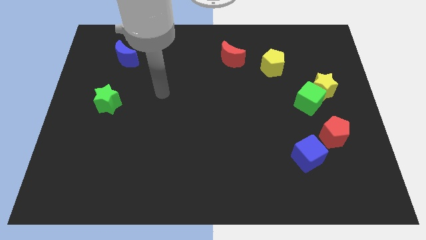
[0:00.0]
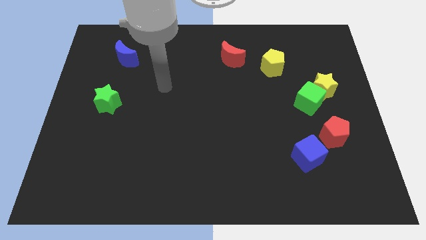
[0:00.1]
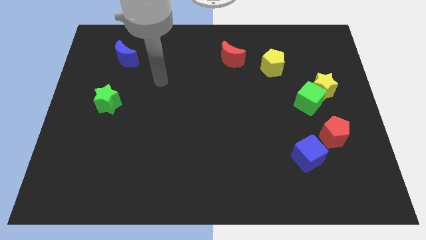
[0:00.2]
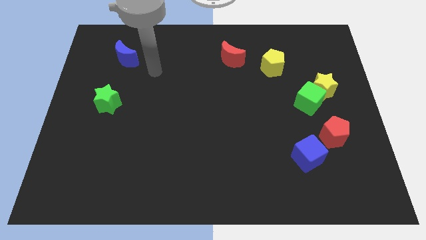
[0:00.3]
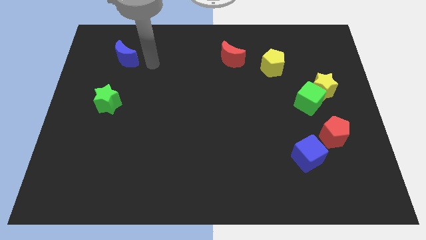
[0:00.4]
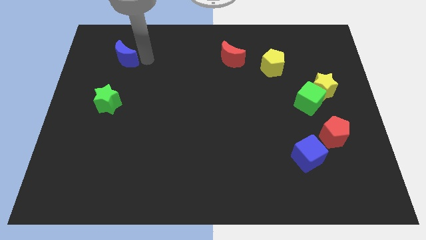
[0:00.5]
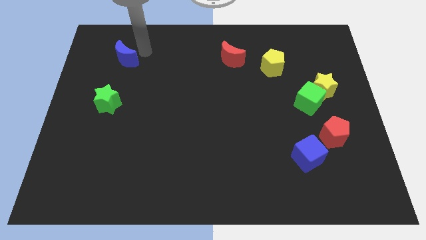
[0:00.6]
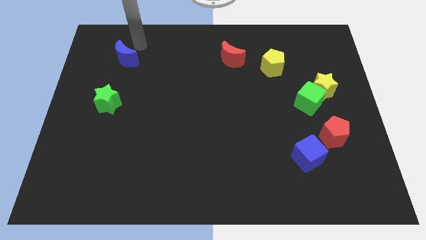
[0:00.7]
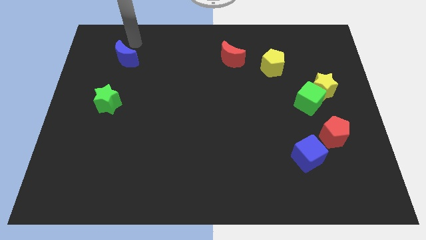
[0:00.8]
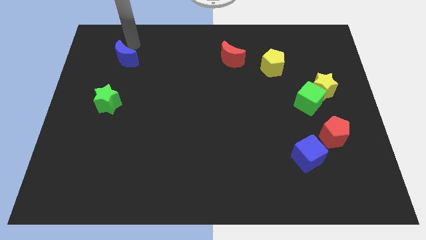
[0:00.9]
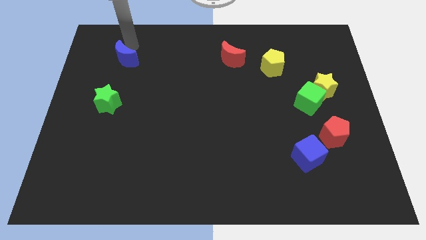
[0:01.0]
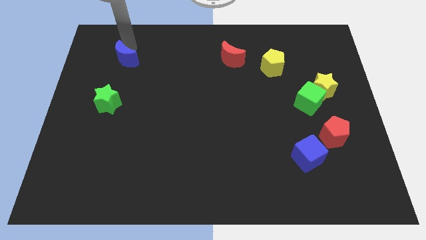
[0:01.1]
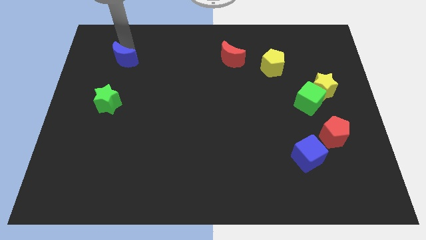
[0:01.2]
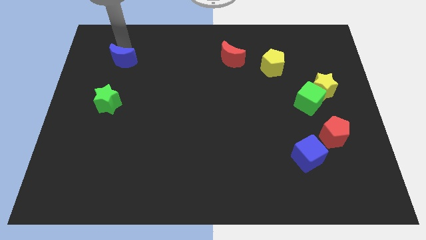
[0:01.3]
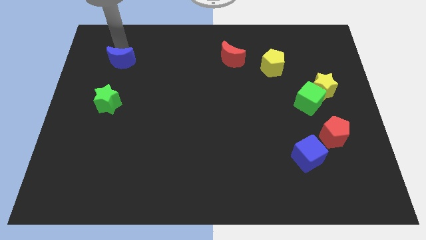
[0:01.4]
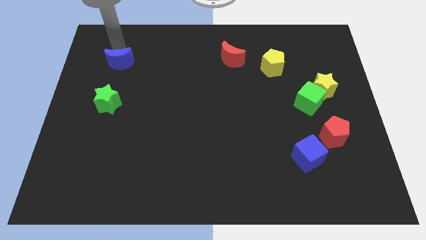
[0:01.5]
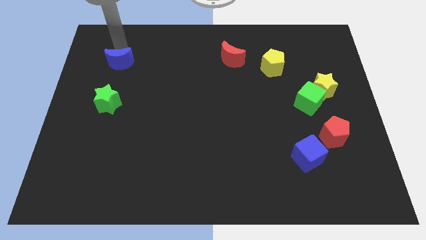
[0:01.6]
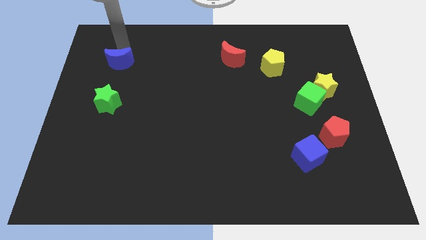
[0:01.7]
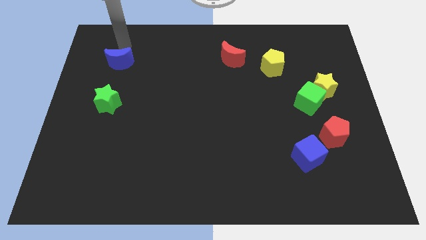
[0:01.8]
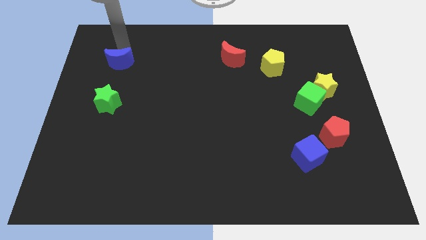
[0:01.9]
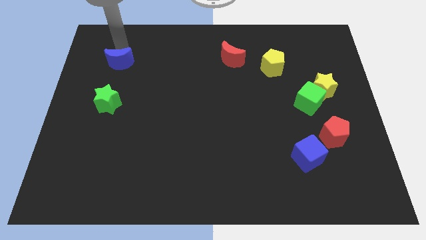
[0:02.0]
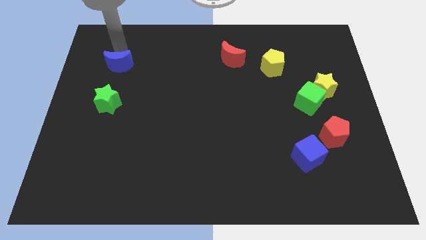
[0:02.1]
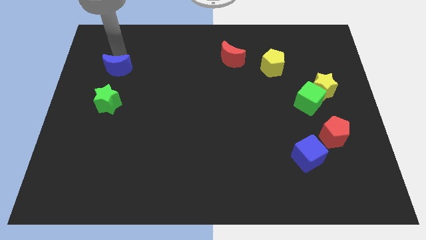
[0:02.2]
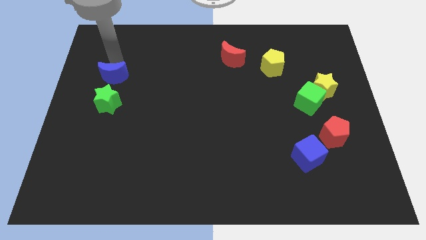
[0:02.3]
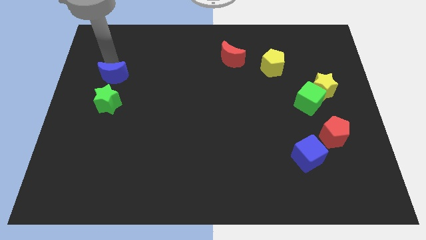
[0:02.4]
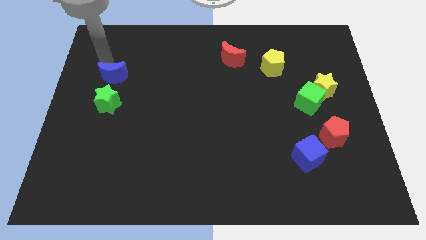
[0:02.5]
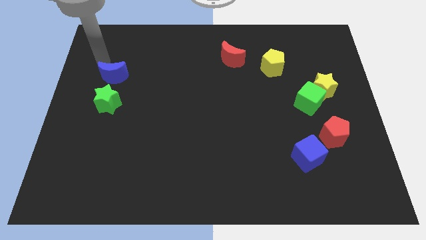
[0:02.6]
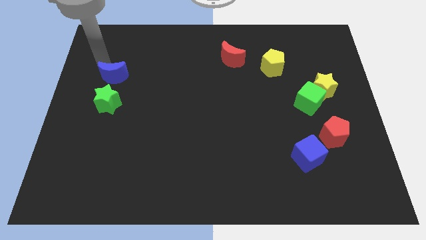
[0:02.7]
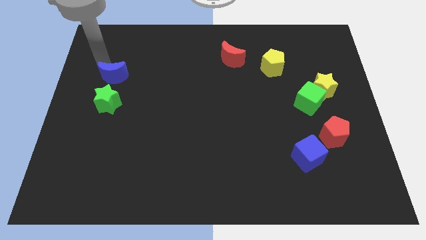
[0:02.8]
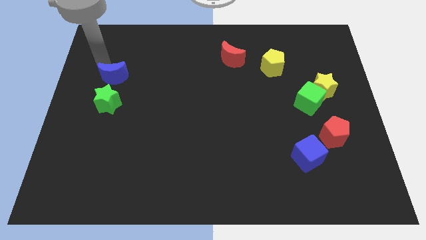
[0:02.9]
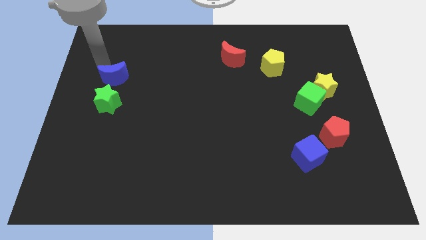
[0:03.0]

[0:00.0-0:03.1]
move the blue moon down somewhat

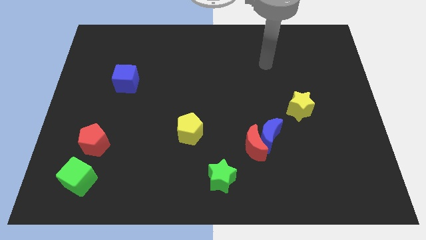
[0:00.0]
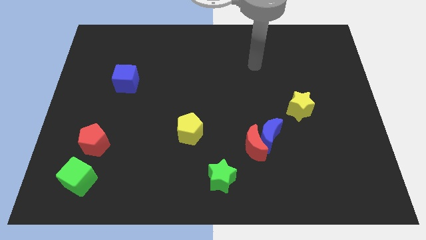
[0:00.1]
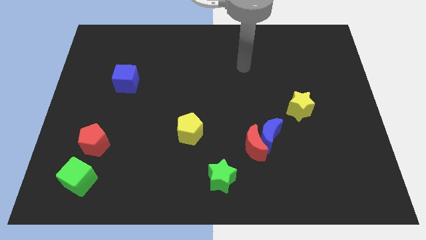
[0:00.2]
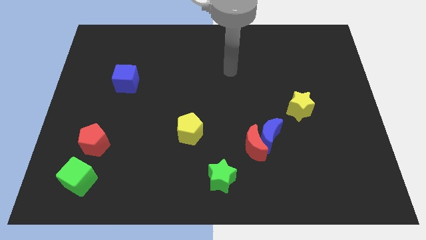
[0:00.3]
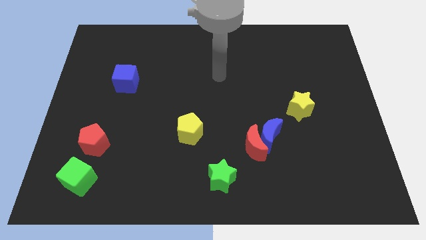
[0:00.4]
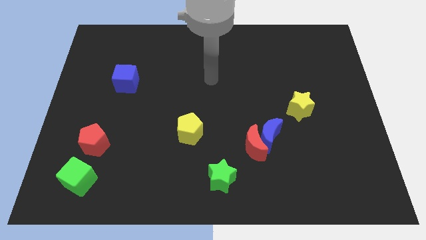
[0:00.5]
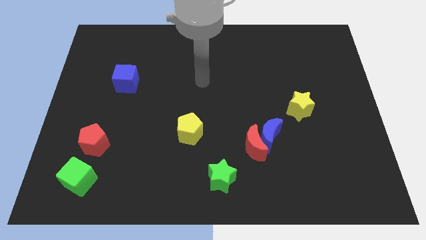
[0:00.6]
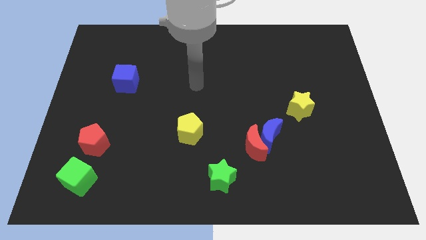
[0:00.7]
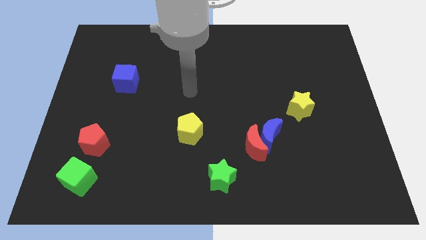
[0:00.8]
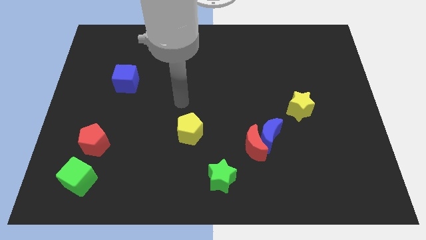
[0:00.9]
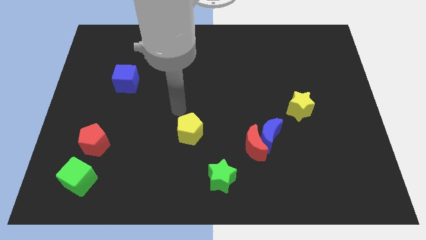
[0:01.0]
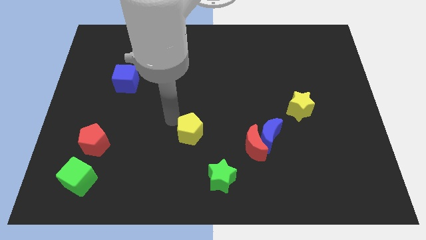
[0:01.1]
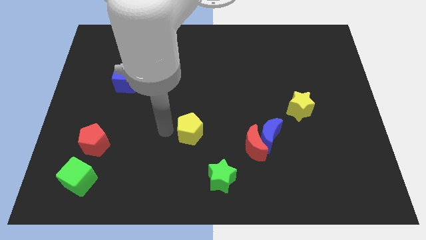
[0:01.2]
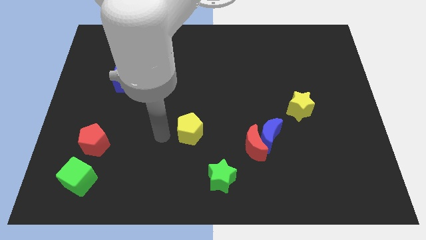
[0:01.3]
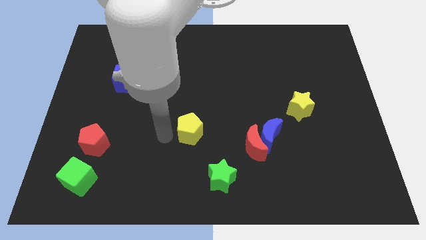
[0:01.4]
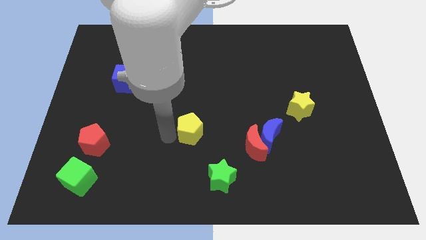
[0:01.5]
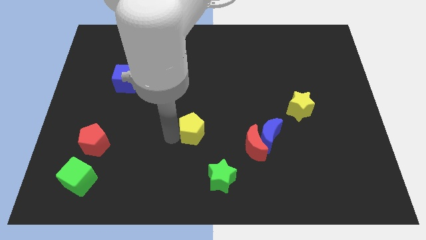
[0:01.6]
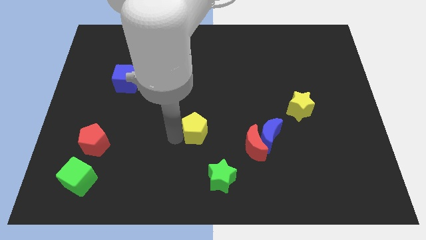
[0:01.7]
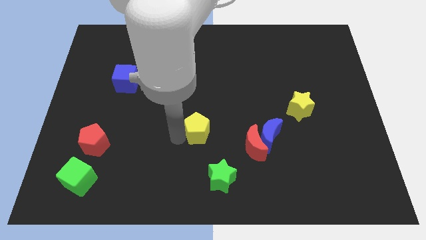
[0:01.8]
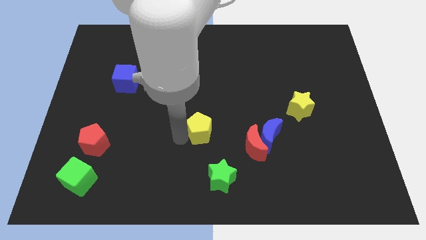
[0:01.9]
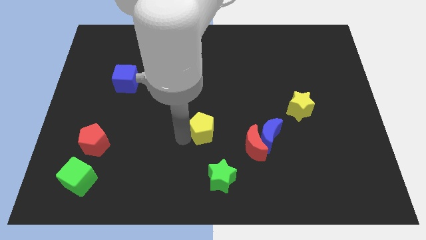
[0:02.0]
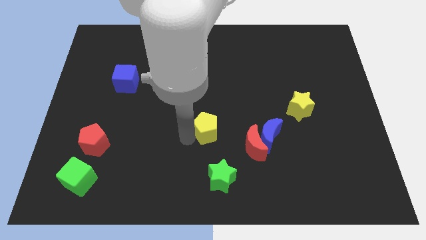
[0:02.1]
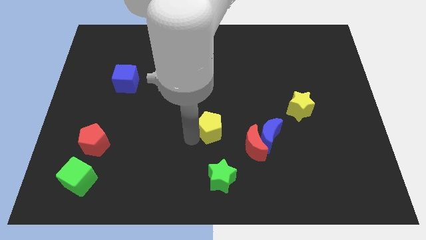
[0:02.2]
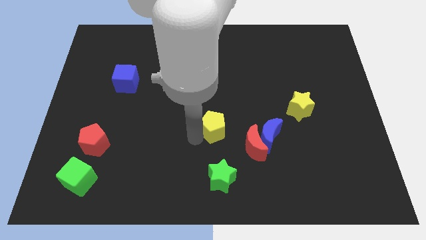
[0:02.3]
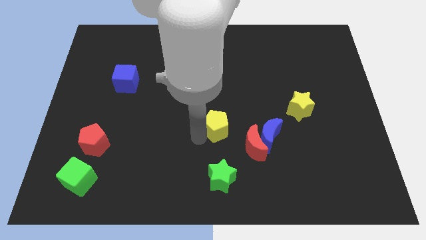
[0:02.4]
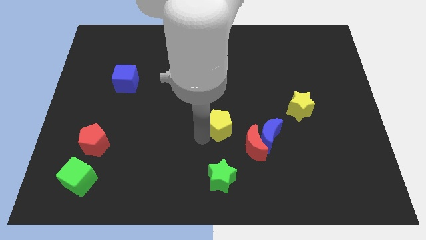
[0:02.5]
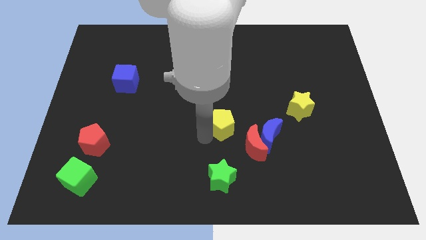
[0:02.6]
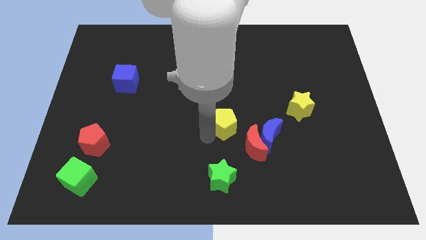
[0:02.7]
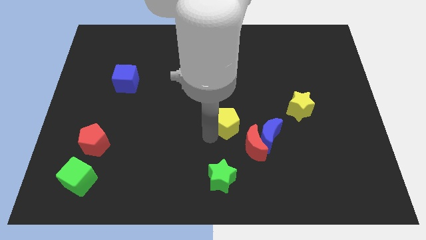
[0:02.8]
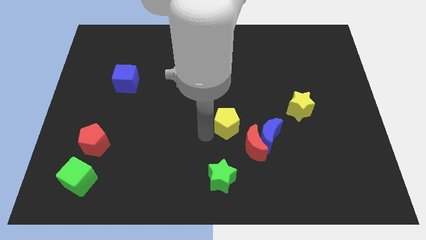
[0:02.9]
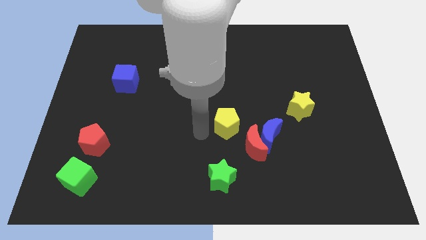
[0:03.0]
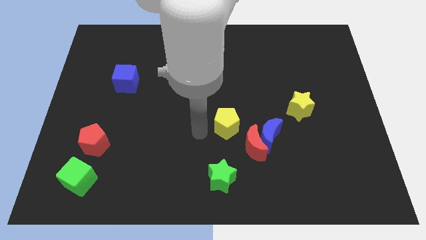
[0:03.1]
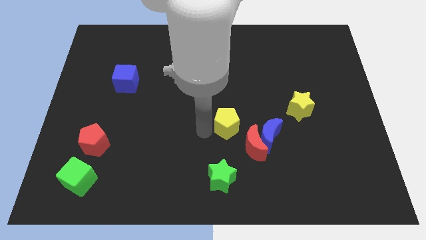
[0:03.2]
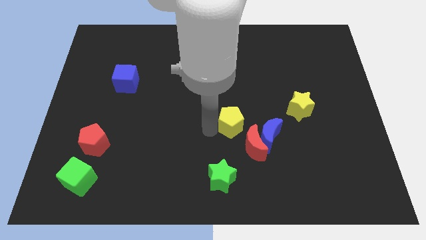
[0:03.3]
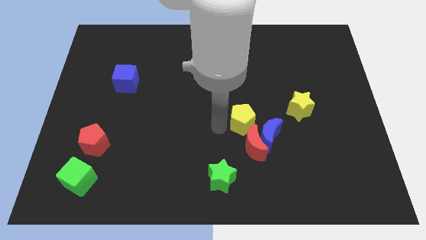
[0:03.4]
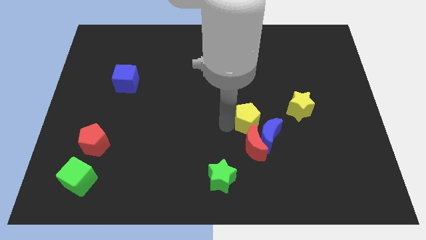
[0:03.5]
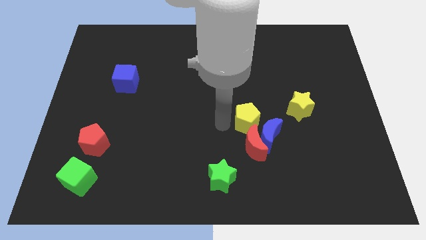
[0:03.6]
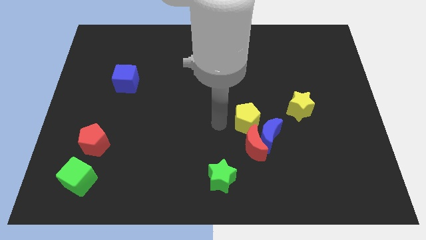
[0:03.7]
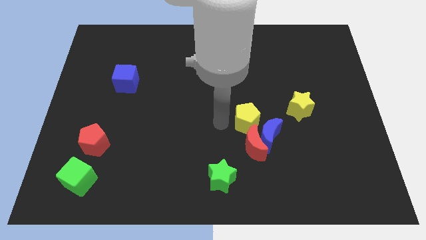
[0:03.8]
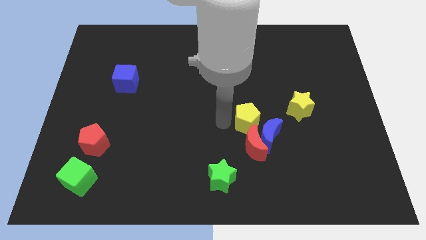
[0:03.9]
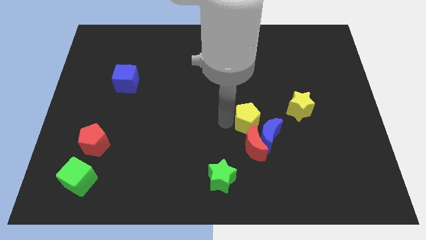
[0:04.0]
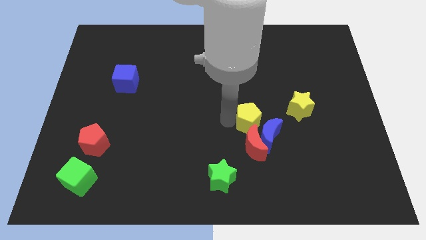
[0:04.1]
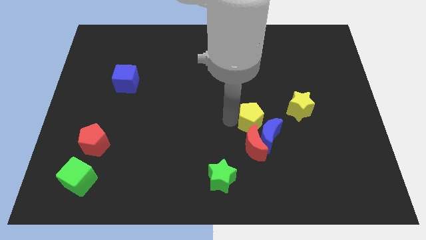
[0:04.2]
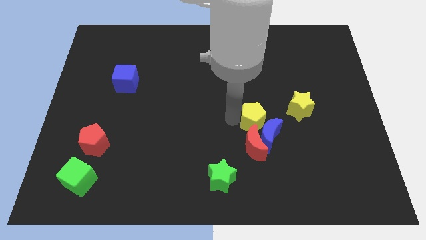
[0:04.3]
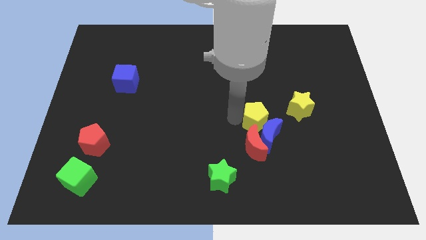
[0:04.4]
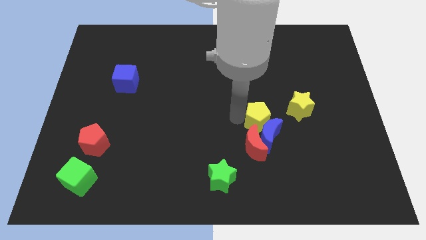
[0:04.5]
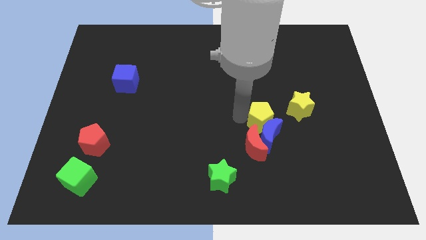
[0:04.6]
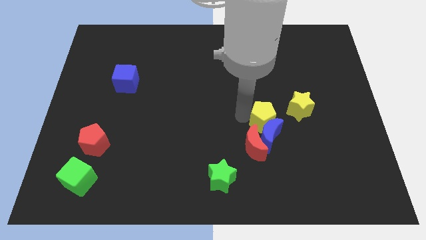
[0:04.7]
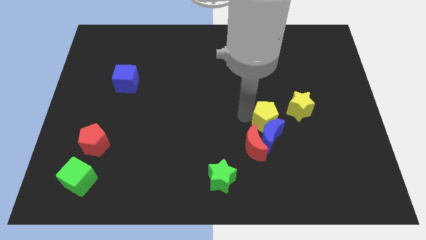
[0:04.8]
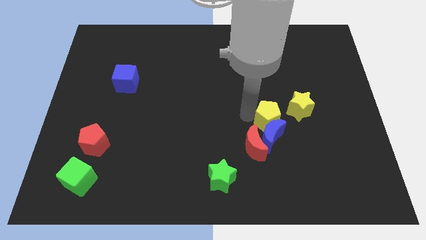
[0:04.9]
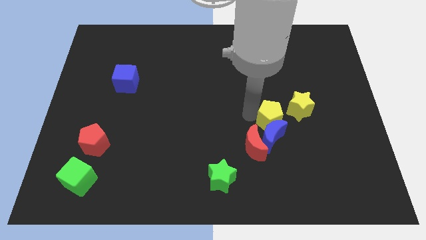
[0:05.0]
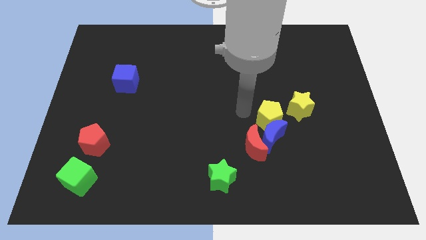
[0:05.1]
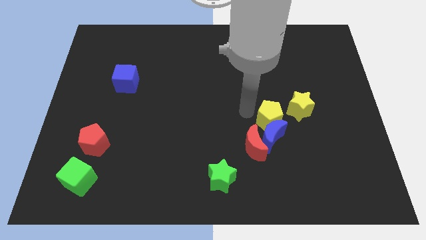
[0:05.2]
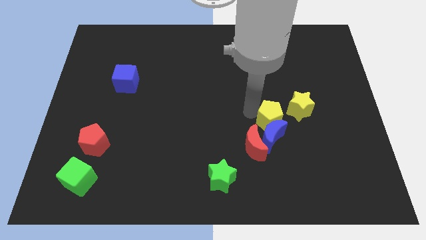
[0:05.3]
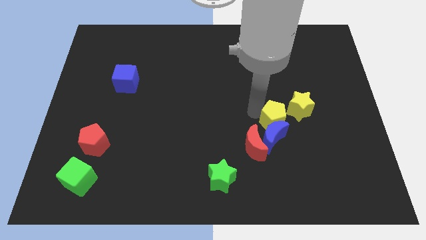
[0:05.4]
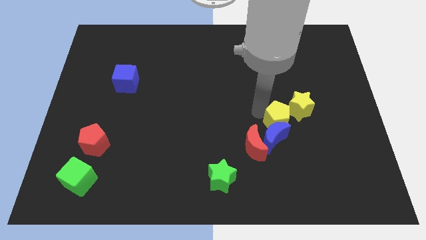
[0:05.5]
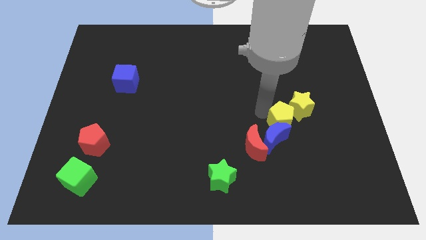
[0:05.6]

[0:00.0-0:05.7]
slide the yellow pentagon right
